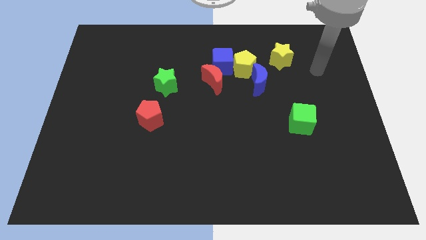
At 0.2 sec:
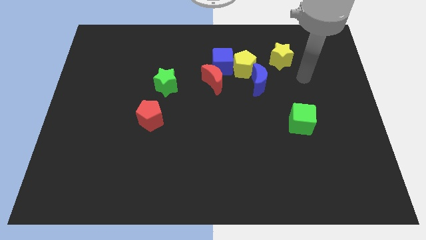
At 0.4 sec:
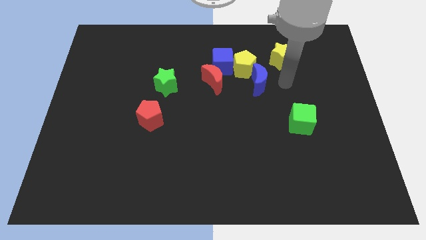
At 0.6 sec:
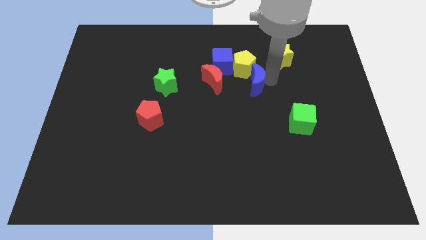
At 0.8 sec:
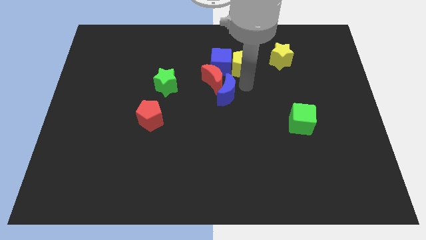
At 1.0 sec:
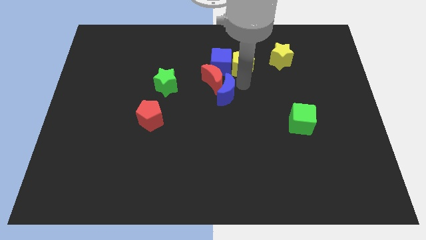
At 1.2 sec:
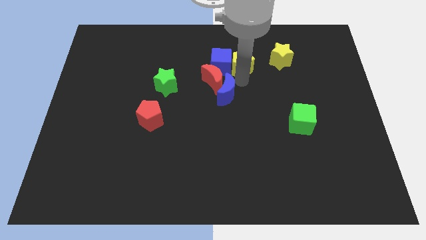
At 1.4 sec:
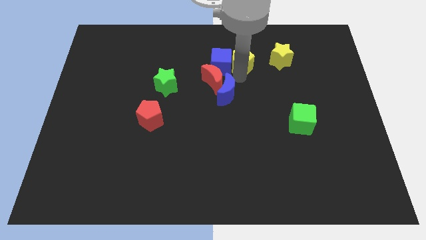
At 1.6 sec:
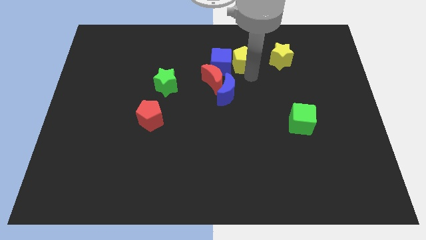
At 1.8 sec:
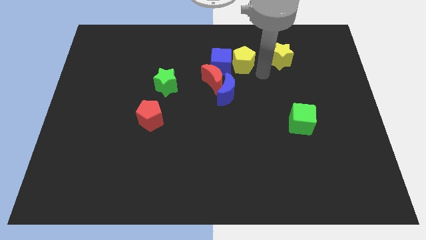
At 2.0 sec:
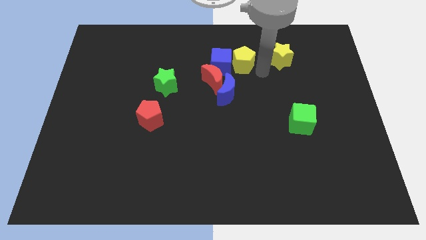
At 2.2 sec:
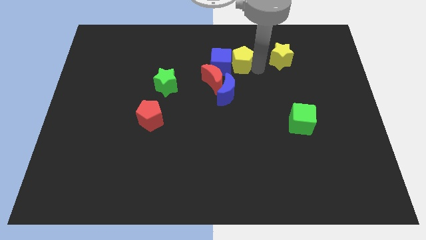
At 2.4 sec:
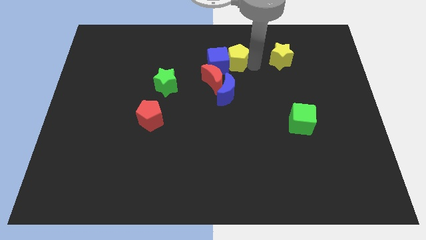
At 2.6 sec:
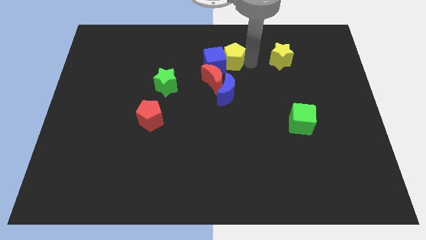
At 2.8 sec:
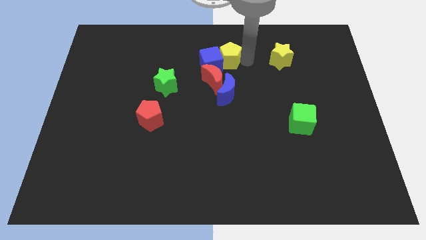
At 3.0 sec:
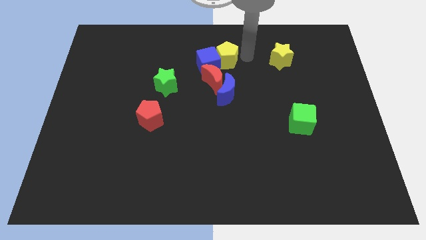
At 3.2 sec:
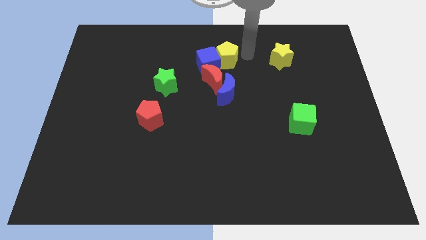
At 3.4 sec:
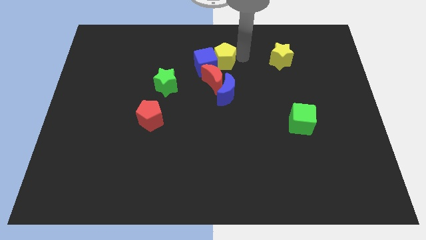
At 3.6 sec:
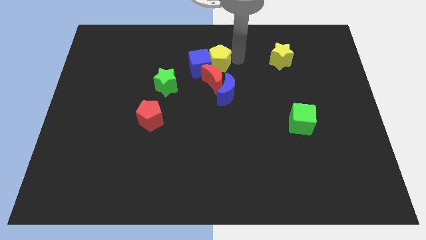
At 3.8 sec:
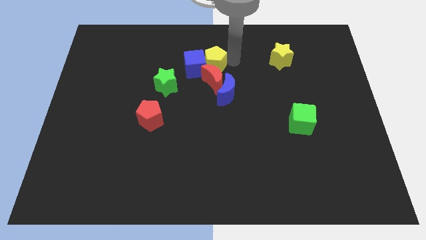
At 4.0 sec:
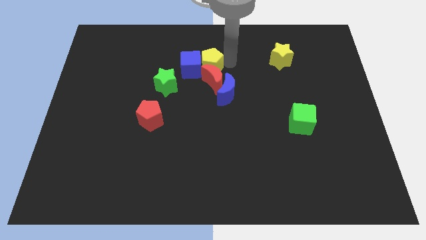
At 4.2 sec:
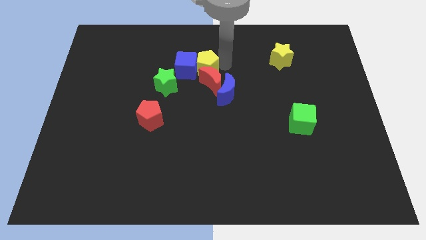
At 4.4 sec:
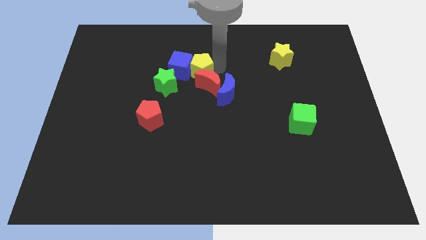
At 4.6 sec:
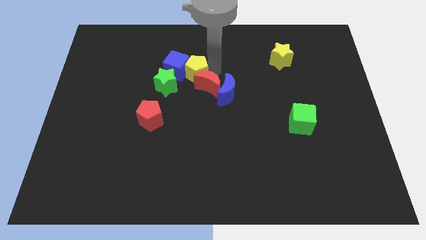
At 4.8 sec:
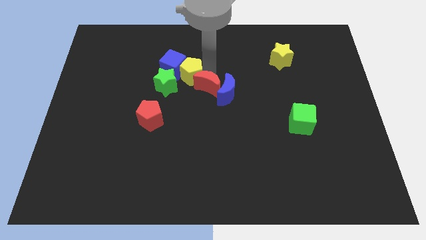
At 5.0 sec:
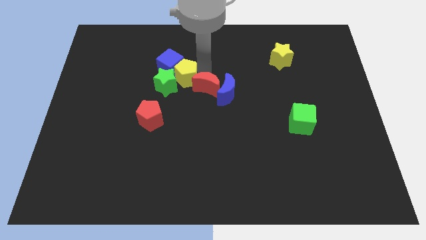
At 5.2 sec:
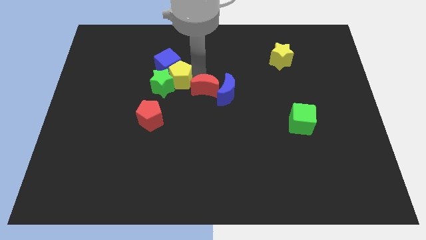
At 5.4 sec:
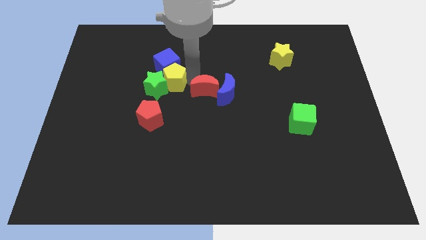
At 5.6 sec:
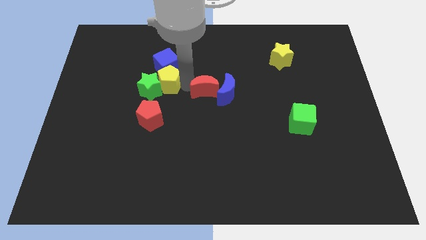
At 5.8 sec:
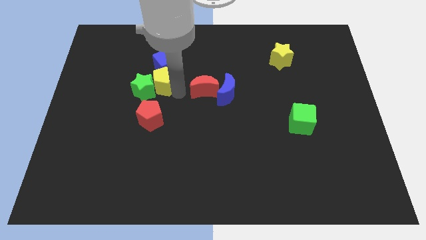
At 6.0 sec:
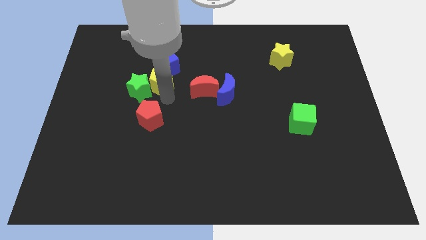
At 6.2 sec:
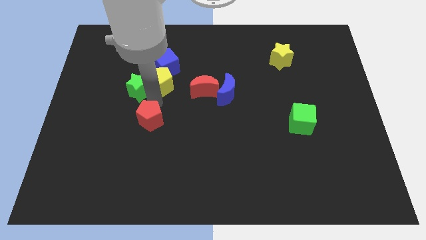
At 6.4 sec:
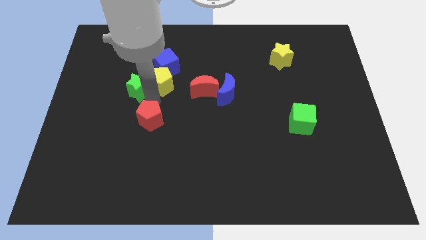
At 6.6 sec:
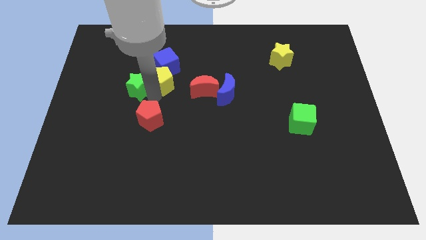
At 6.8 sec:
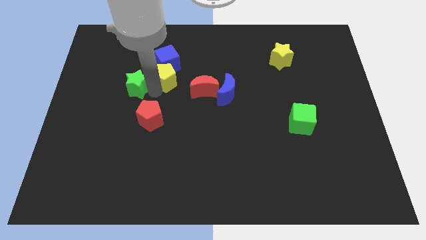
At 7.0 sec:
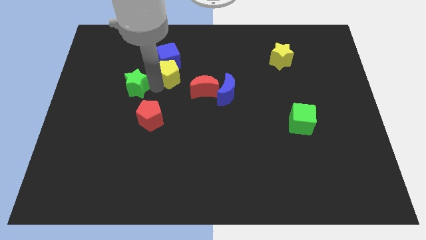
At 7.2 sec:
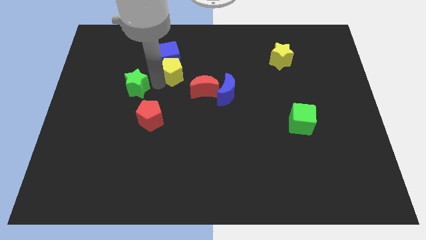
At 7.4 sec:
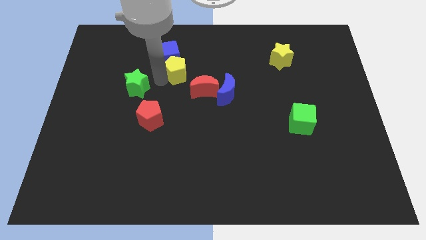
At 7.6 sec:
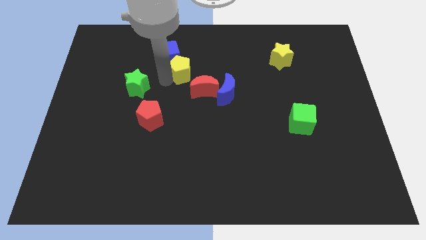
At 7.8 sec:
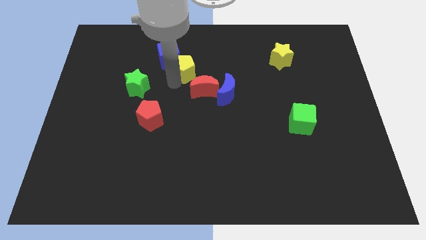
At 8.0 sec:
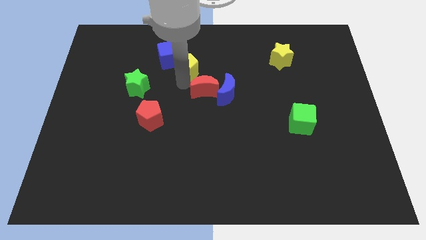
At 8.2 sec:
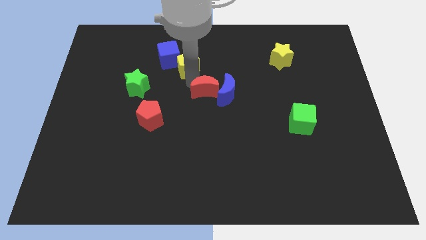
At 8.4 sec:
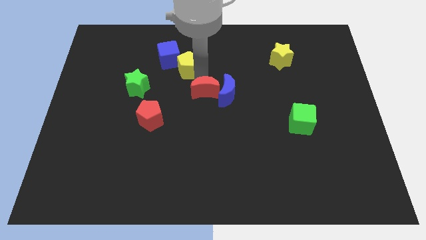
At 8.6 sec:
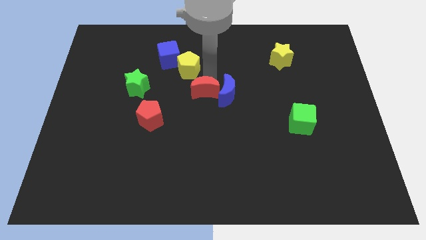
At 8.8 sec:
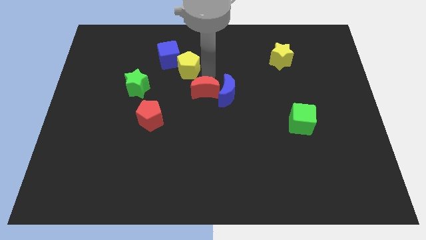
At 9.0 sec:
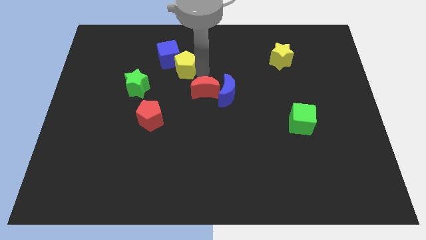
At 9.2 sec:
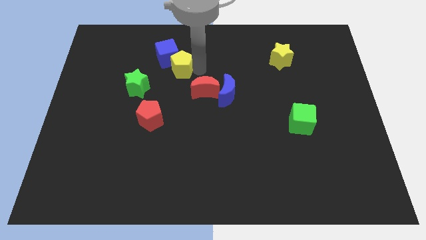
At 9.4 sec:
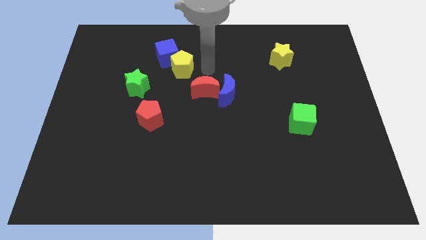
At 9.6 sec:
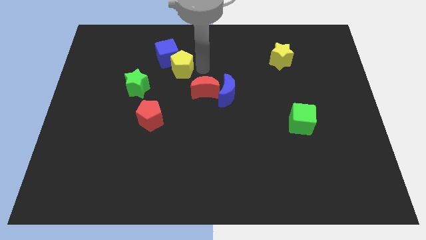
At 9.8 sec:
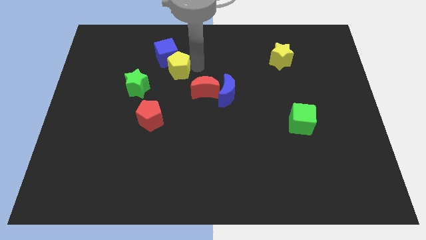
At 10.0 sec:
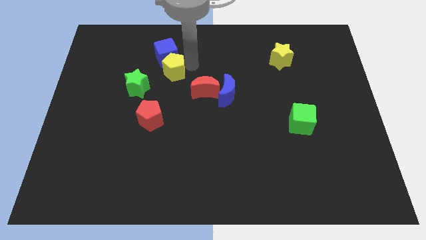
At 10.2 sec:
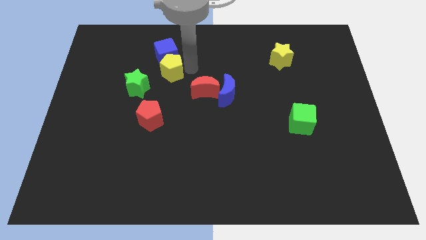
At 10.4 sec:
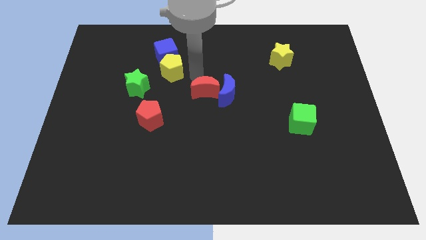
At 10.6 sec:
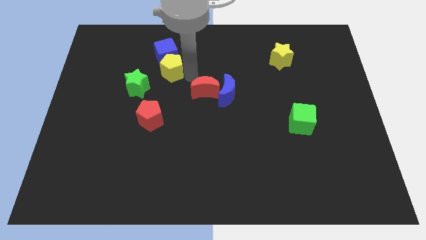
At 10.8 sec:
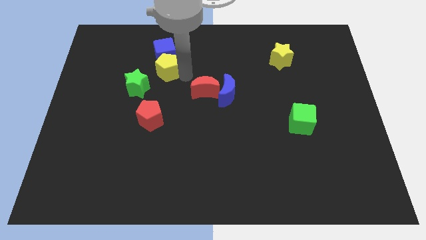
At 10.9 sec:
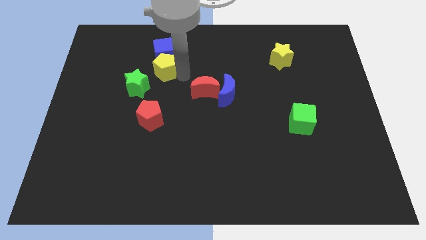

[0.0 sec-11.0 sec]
move the yellow pentagon to the left

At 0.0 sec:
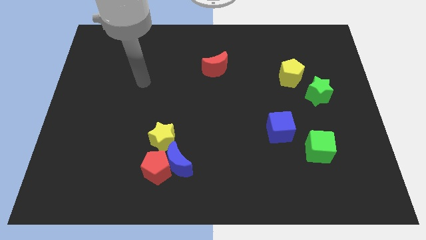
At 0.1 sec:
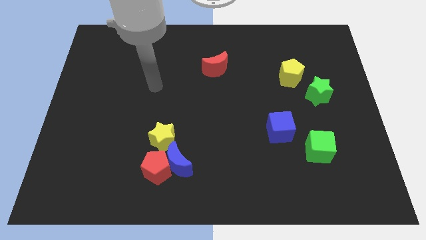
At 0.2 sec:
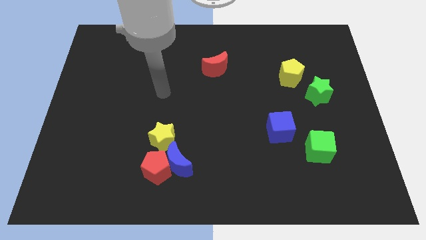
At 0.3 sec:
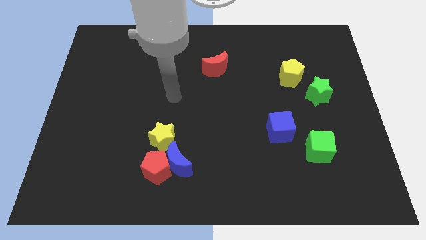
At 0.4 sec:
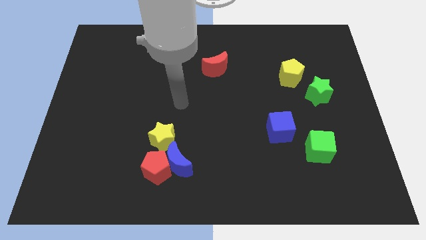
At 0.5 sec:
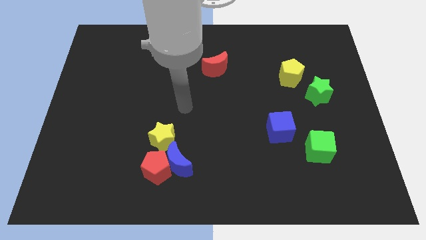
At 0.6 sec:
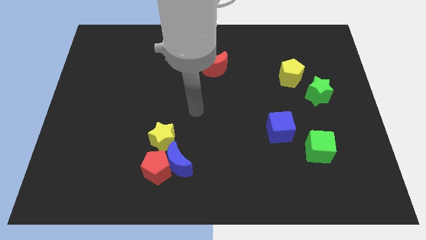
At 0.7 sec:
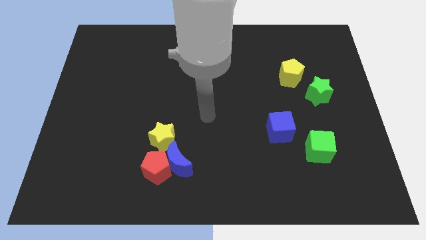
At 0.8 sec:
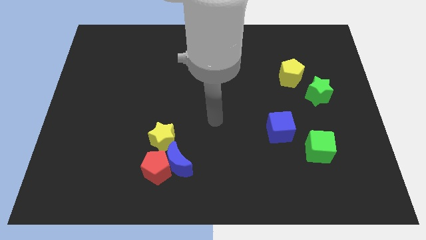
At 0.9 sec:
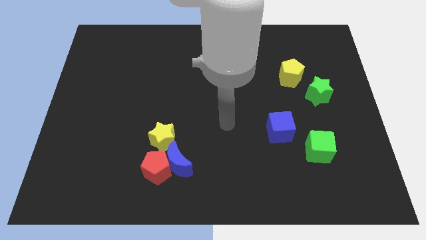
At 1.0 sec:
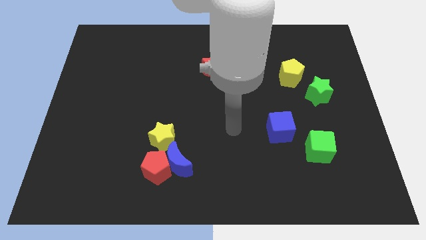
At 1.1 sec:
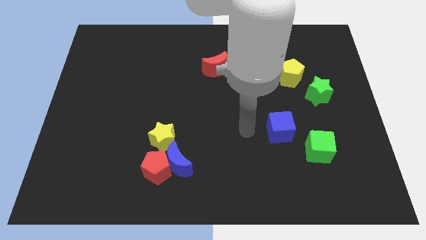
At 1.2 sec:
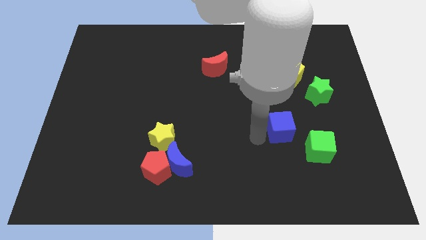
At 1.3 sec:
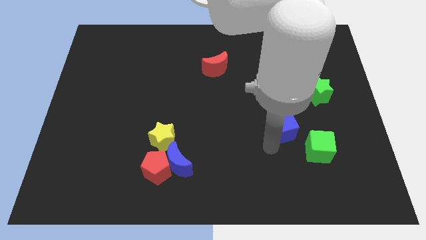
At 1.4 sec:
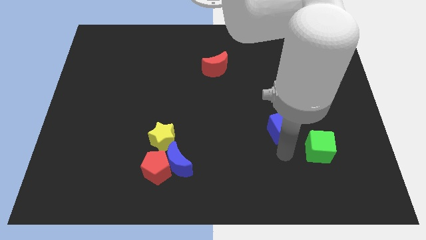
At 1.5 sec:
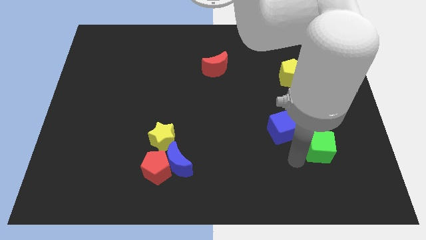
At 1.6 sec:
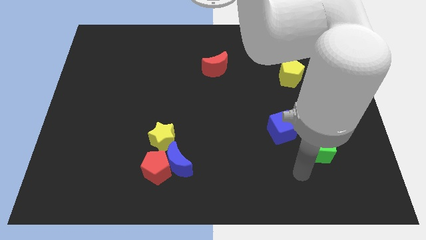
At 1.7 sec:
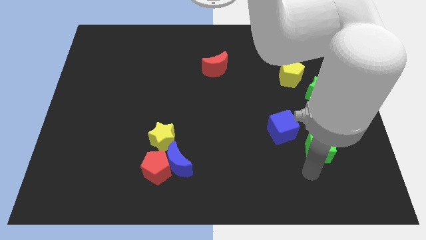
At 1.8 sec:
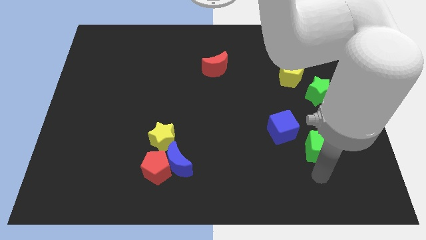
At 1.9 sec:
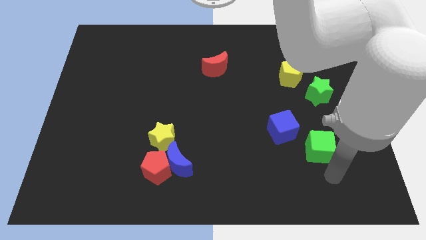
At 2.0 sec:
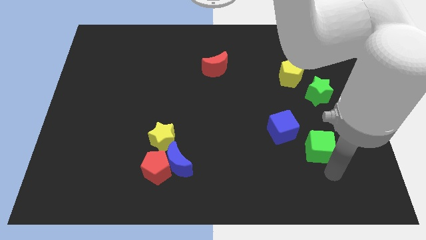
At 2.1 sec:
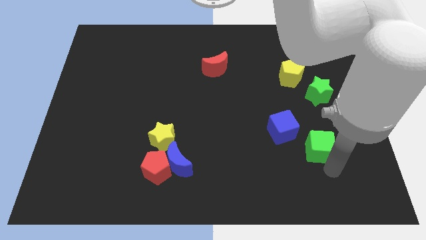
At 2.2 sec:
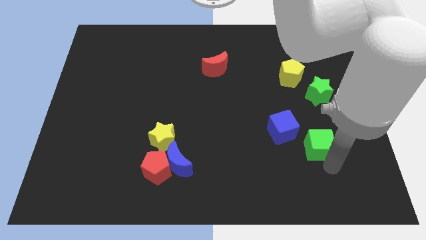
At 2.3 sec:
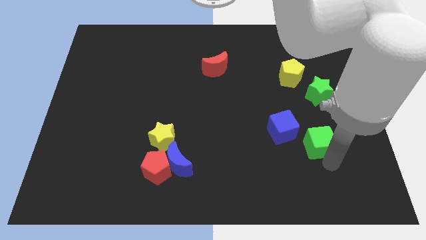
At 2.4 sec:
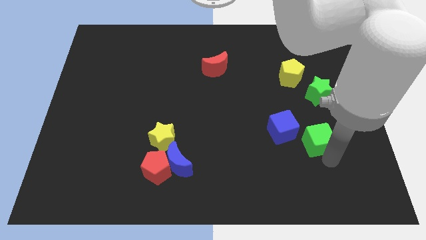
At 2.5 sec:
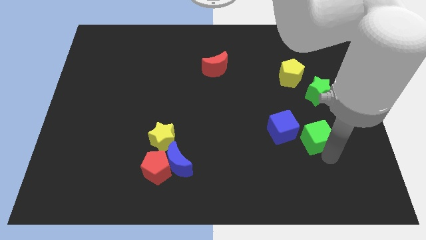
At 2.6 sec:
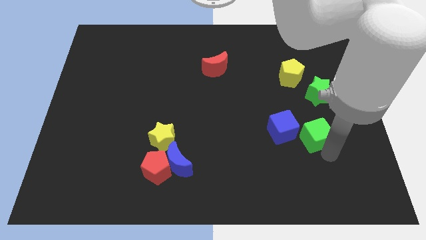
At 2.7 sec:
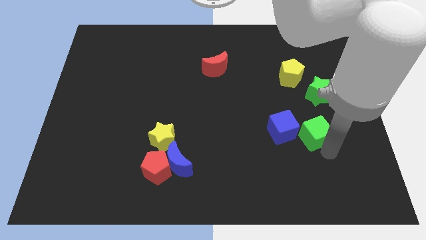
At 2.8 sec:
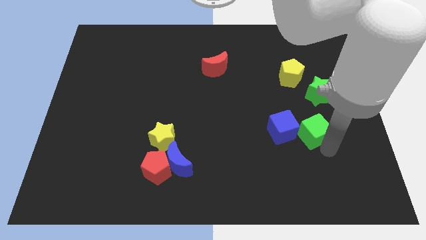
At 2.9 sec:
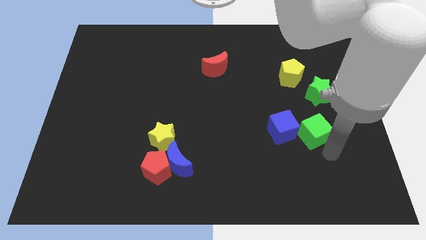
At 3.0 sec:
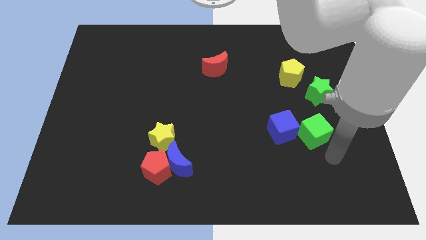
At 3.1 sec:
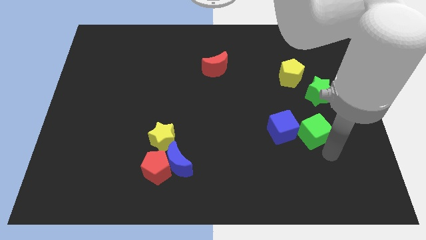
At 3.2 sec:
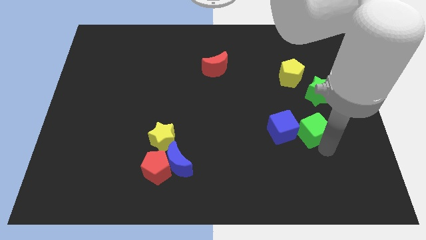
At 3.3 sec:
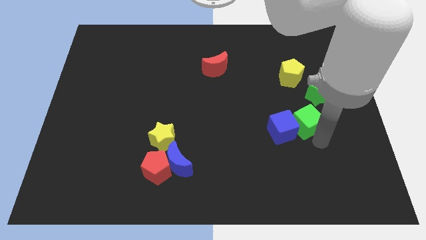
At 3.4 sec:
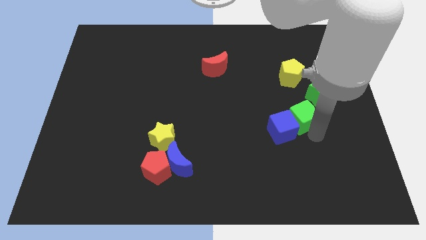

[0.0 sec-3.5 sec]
slightly slide the green cube upwards
